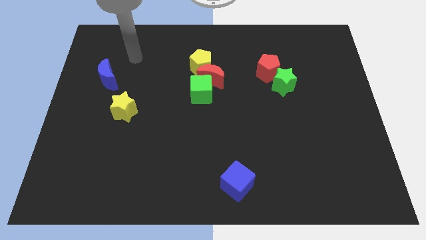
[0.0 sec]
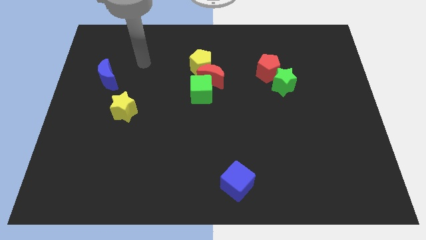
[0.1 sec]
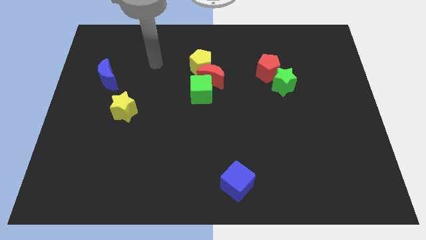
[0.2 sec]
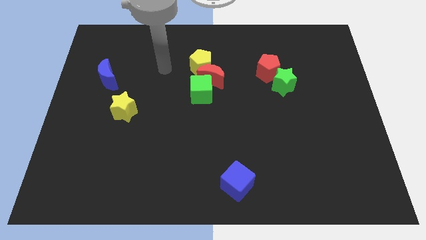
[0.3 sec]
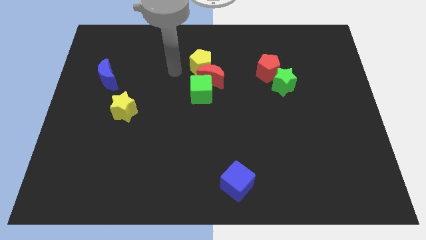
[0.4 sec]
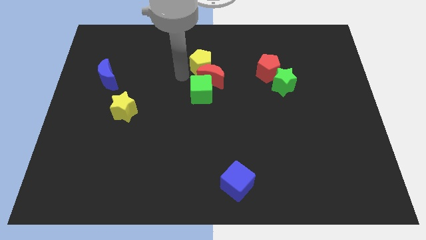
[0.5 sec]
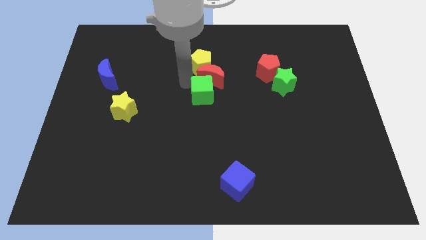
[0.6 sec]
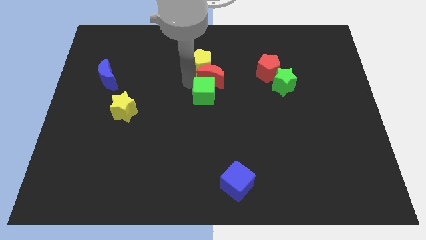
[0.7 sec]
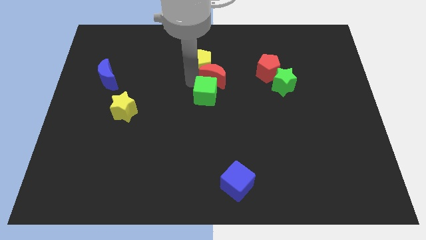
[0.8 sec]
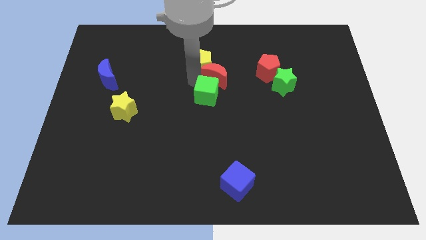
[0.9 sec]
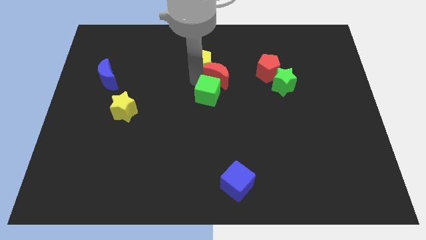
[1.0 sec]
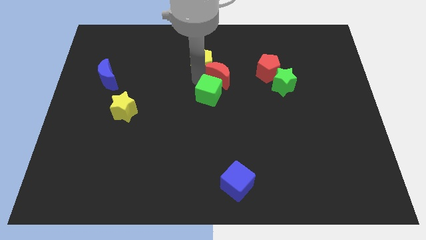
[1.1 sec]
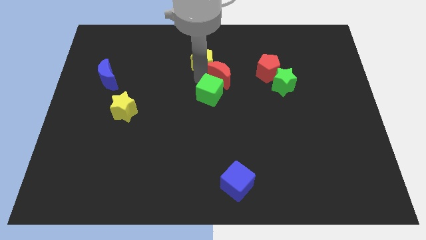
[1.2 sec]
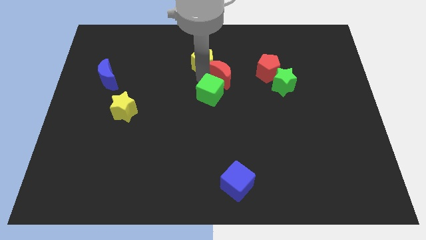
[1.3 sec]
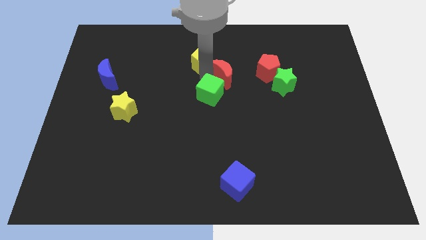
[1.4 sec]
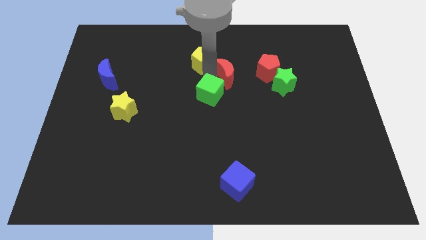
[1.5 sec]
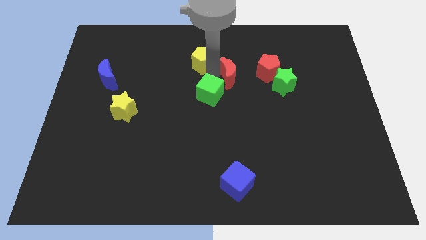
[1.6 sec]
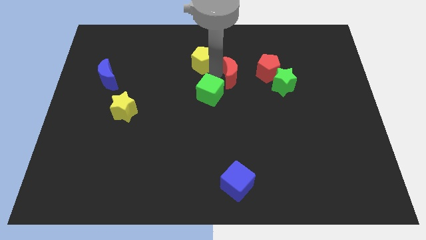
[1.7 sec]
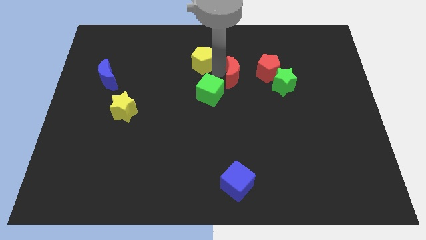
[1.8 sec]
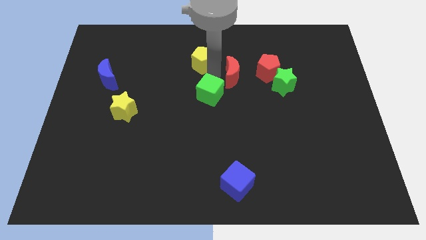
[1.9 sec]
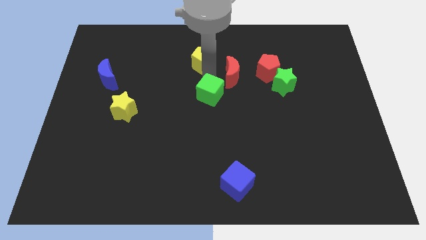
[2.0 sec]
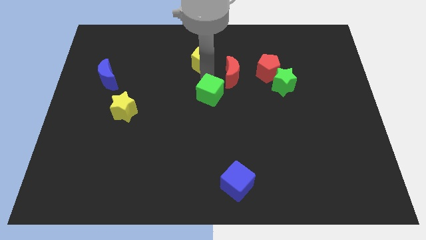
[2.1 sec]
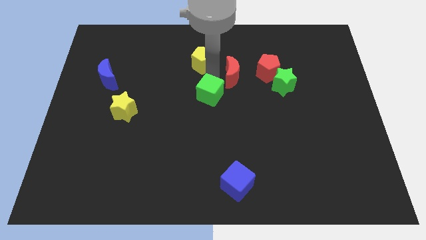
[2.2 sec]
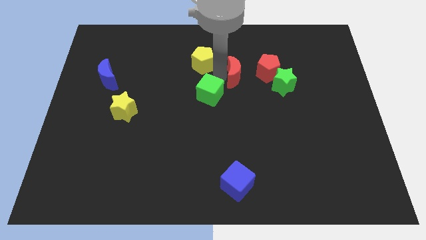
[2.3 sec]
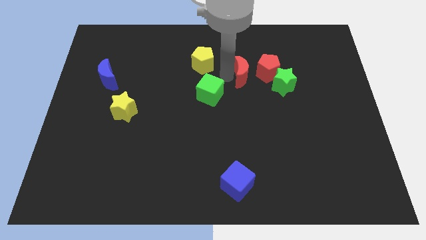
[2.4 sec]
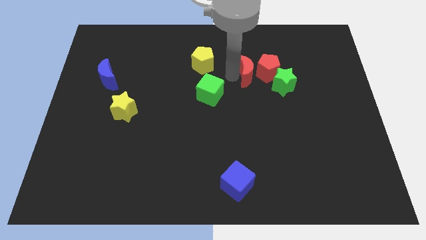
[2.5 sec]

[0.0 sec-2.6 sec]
move the red moon away from the yellow pentagon and green cube

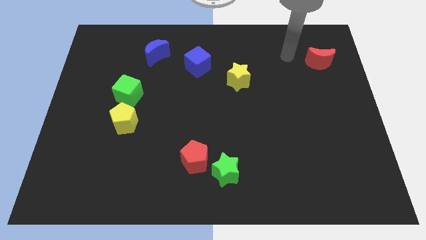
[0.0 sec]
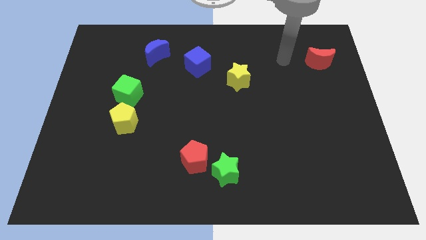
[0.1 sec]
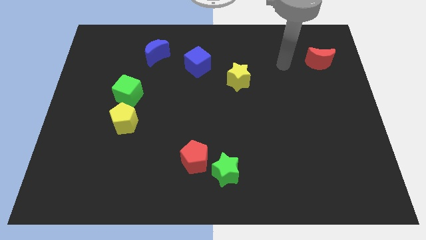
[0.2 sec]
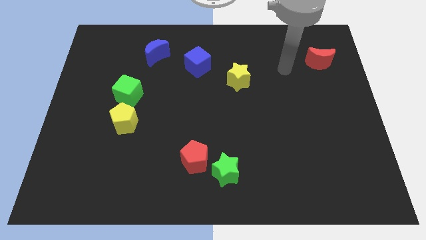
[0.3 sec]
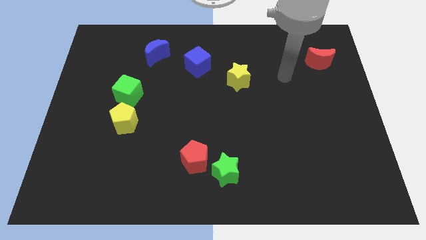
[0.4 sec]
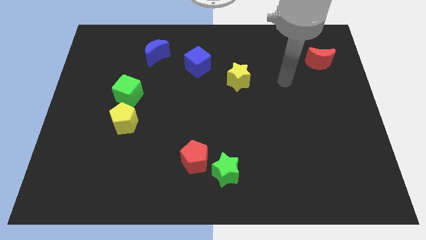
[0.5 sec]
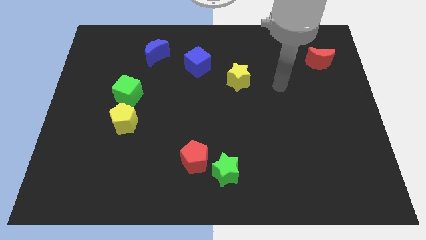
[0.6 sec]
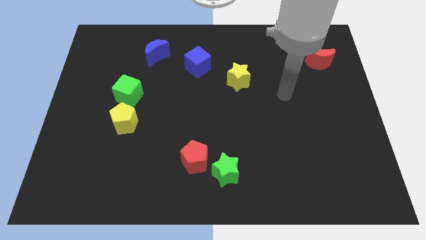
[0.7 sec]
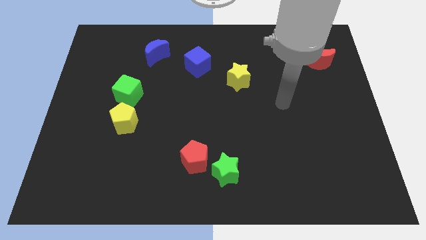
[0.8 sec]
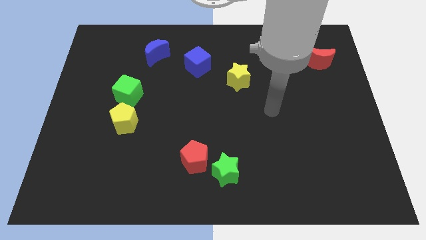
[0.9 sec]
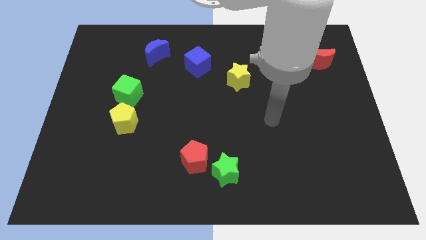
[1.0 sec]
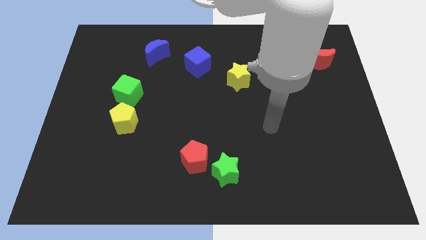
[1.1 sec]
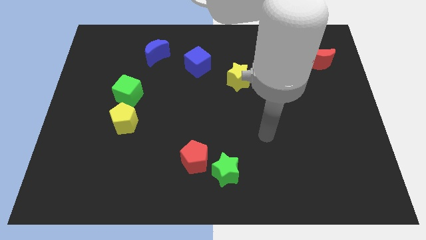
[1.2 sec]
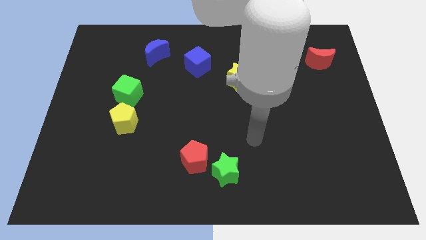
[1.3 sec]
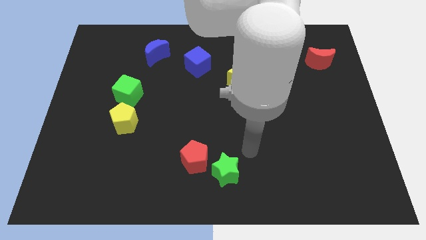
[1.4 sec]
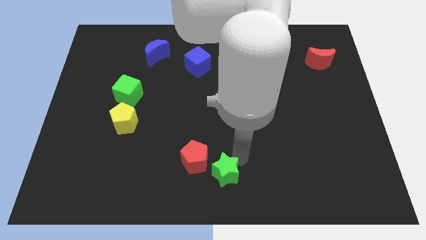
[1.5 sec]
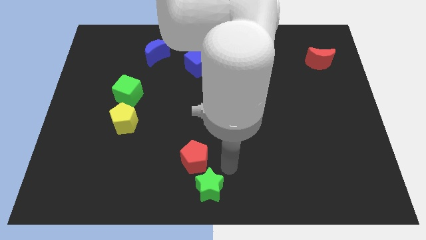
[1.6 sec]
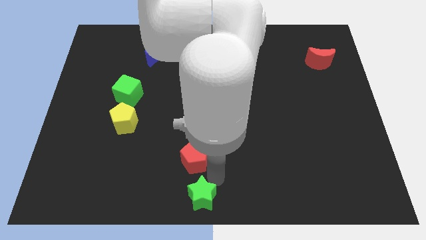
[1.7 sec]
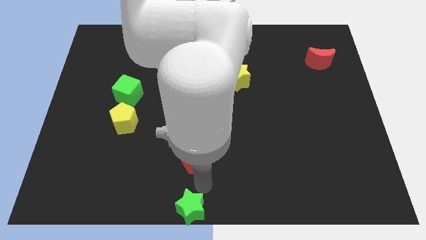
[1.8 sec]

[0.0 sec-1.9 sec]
separate the red pentagon from the green star

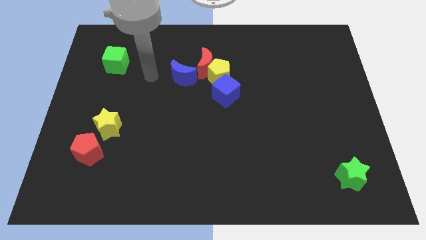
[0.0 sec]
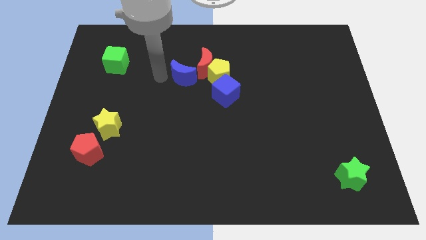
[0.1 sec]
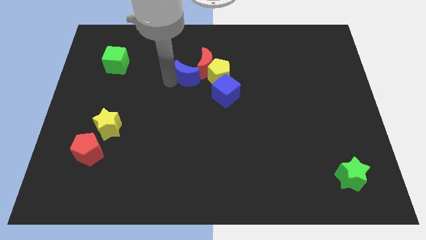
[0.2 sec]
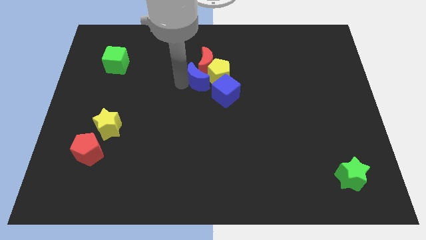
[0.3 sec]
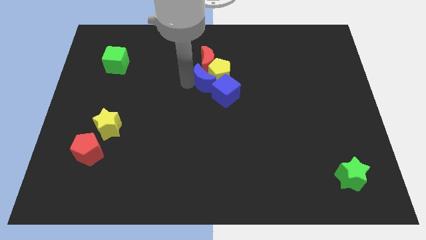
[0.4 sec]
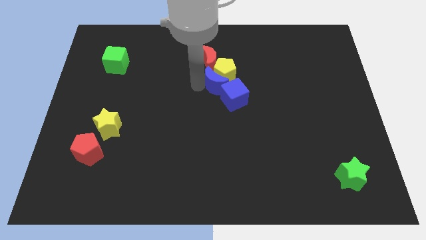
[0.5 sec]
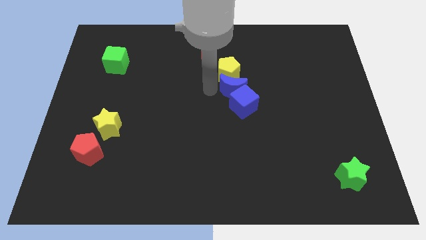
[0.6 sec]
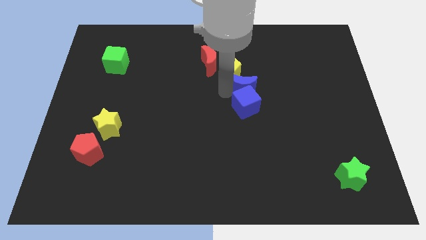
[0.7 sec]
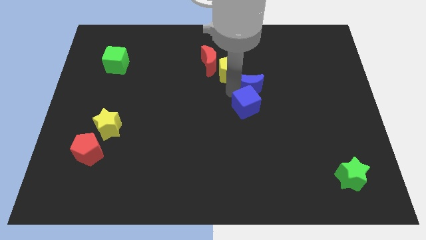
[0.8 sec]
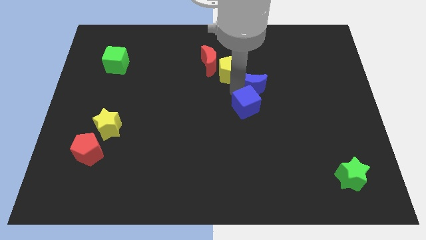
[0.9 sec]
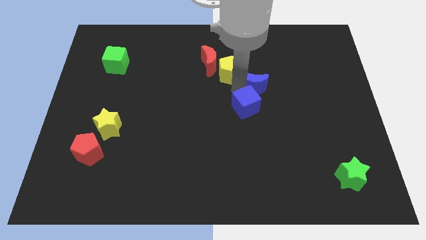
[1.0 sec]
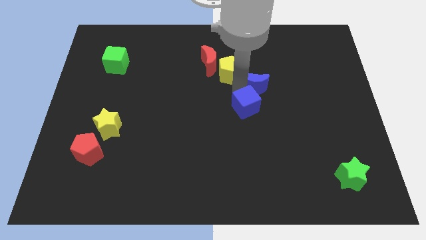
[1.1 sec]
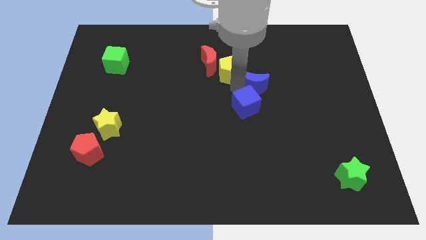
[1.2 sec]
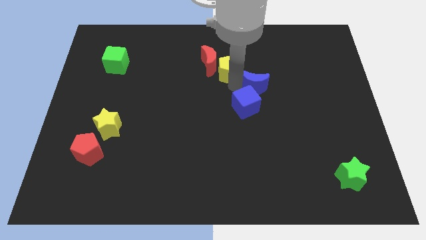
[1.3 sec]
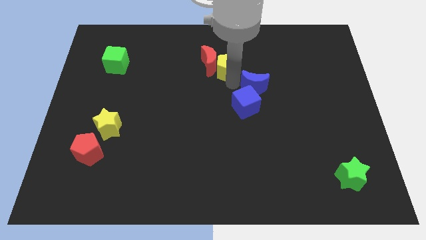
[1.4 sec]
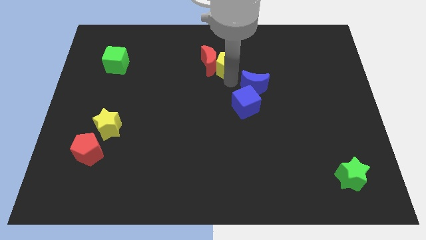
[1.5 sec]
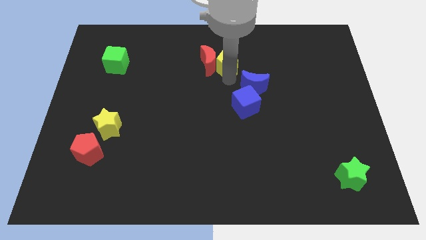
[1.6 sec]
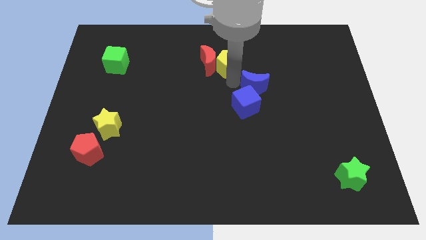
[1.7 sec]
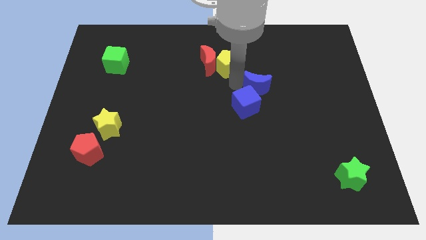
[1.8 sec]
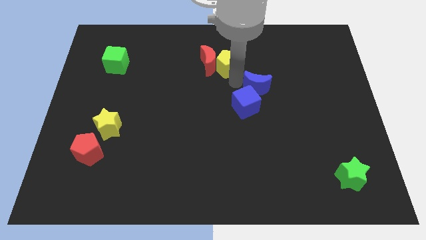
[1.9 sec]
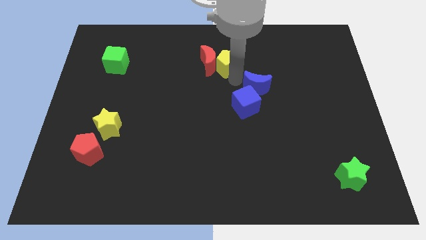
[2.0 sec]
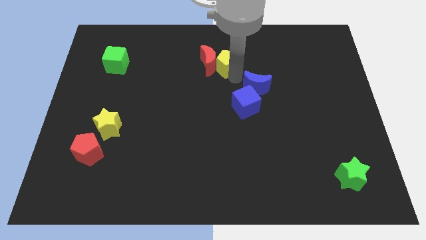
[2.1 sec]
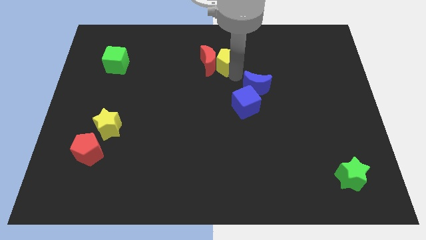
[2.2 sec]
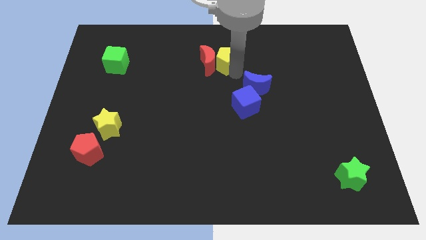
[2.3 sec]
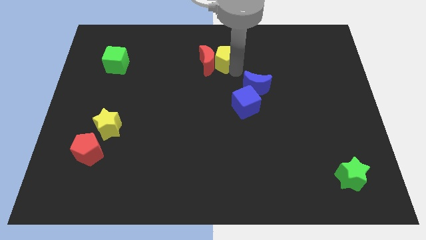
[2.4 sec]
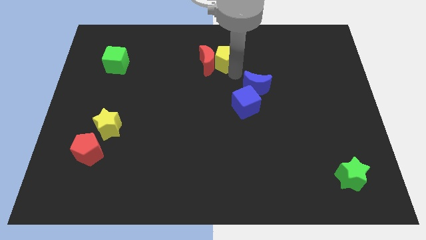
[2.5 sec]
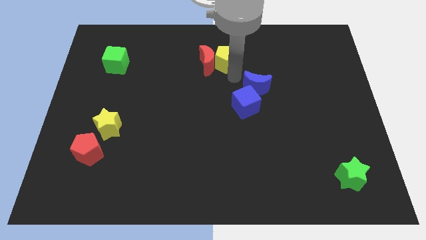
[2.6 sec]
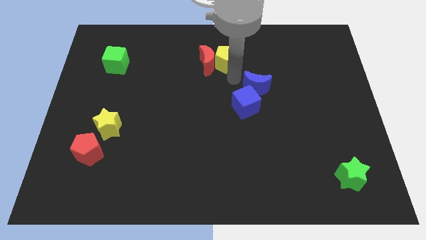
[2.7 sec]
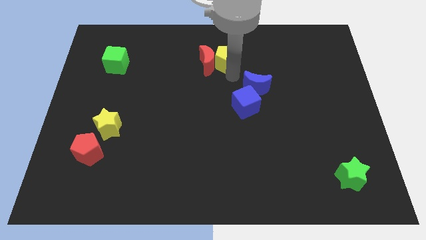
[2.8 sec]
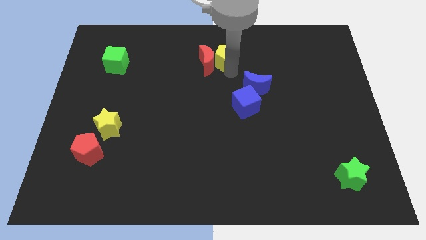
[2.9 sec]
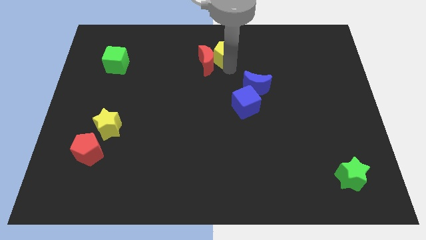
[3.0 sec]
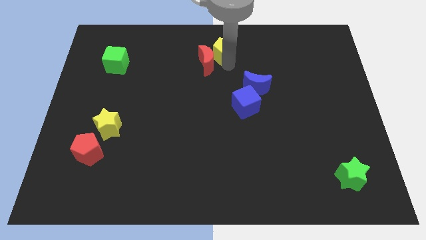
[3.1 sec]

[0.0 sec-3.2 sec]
pull the yellow pentagon apart from the group of blocks

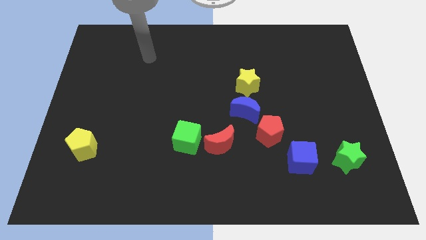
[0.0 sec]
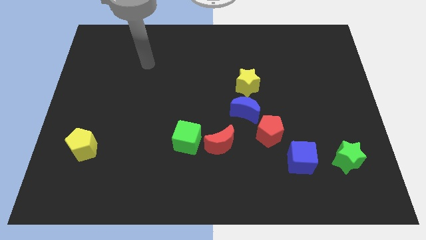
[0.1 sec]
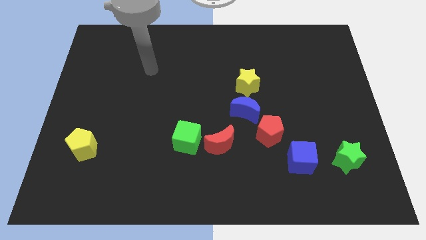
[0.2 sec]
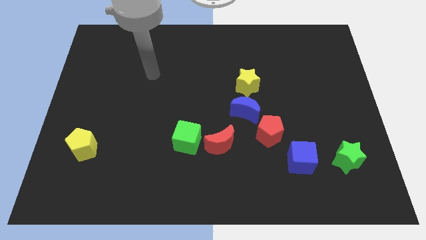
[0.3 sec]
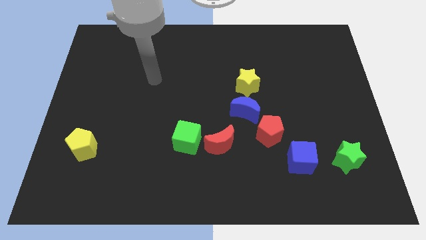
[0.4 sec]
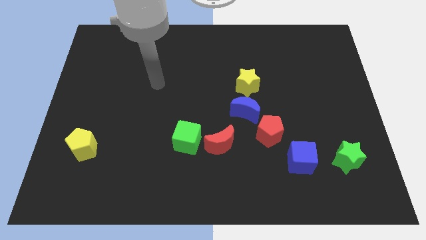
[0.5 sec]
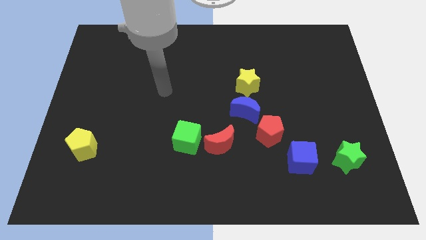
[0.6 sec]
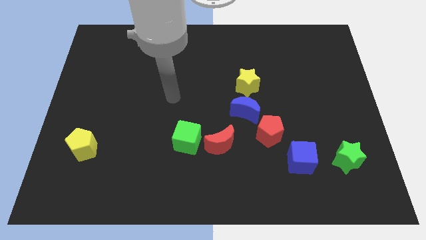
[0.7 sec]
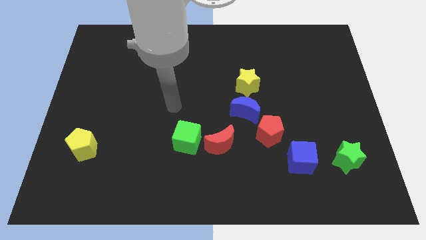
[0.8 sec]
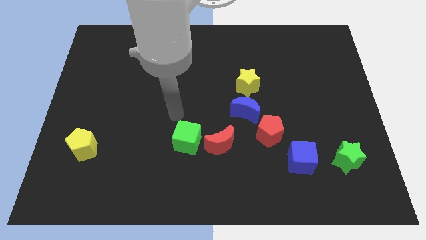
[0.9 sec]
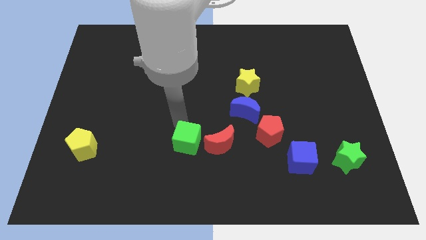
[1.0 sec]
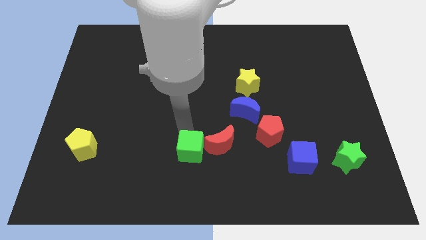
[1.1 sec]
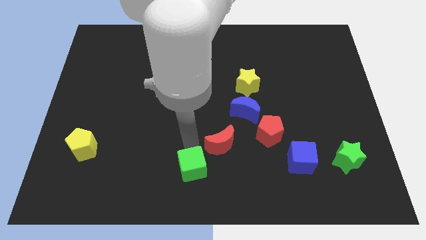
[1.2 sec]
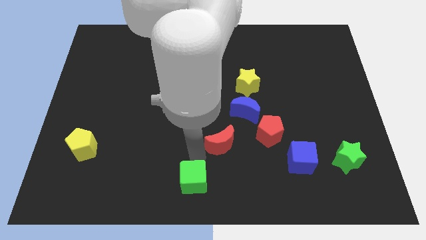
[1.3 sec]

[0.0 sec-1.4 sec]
pull the red moon apart from the green cube
